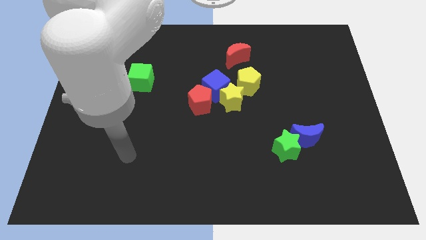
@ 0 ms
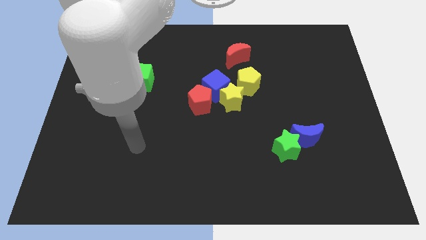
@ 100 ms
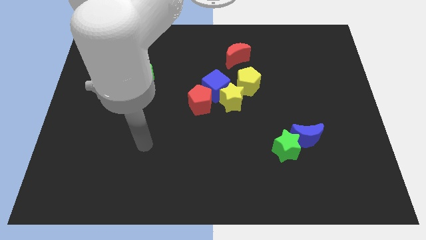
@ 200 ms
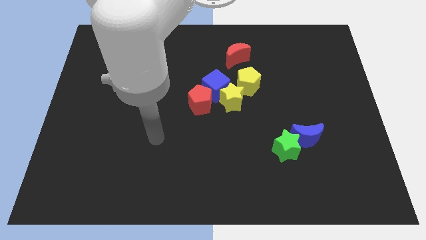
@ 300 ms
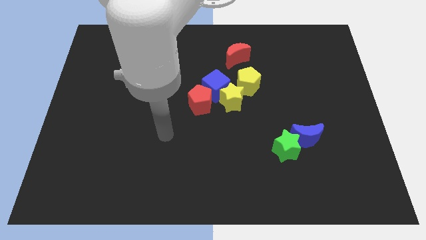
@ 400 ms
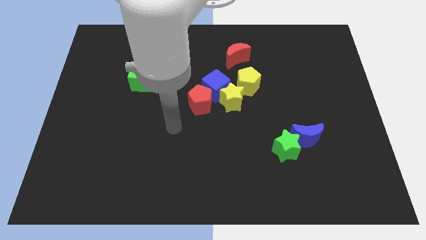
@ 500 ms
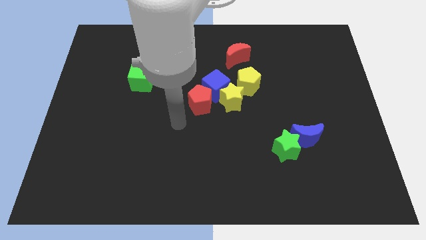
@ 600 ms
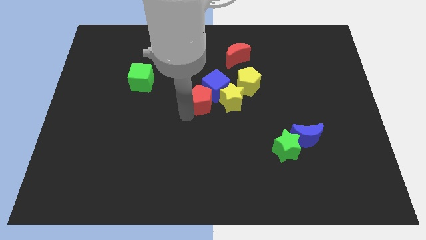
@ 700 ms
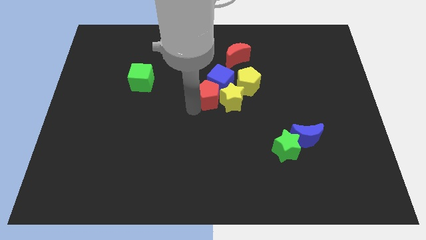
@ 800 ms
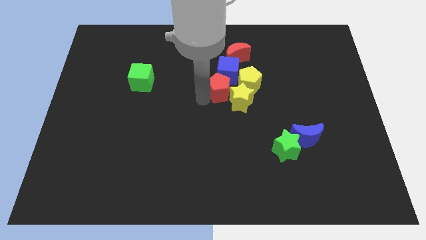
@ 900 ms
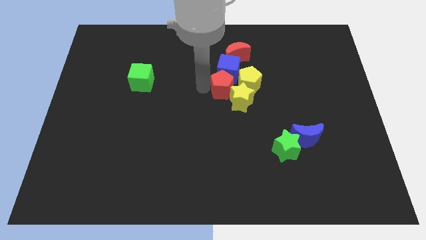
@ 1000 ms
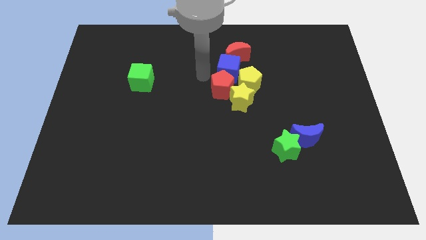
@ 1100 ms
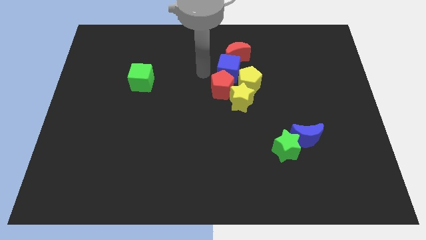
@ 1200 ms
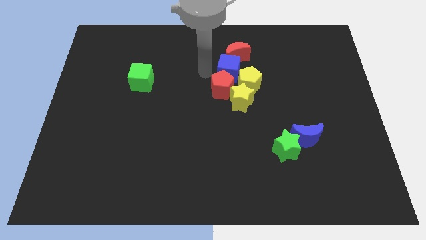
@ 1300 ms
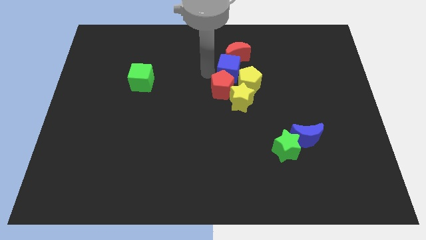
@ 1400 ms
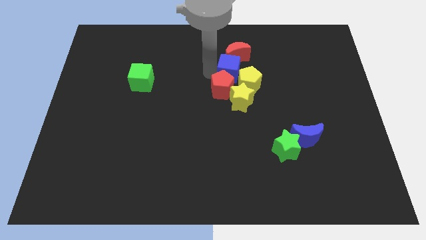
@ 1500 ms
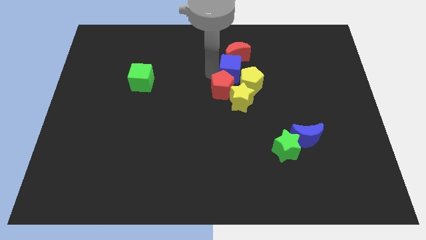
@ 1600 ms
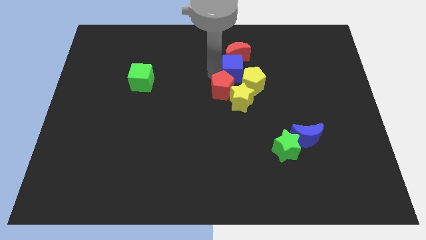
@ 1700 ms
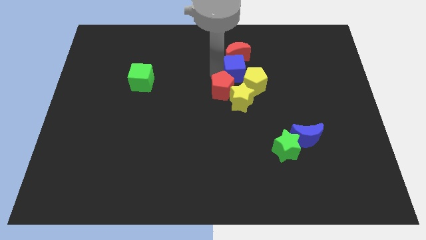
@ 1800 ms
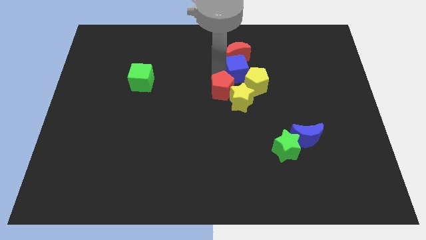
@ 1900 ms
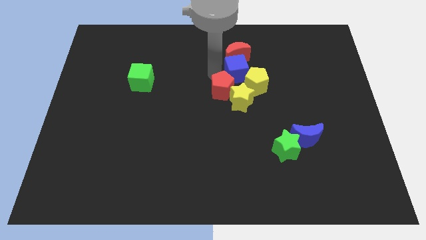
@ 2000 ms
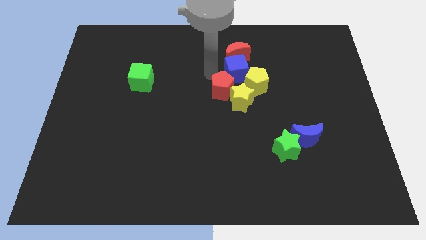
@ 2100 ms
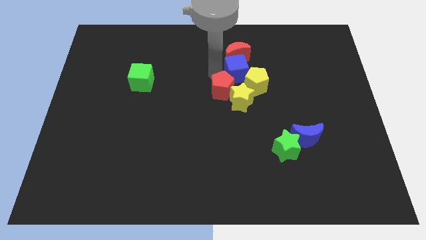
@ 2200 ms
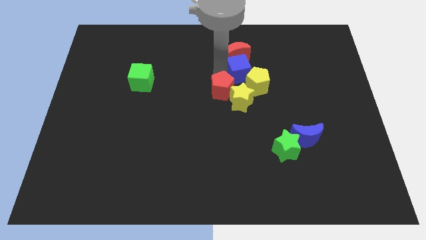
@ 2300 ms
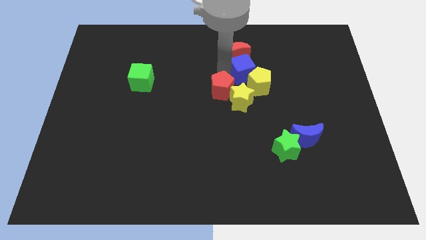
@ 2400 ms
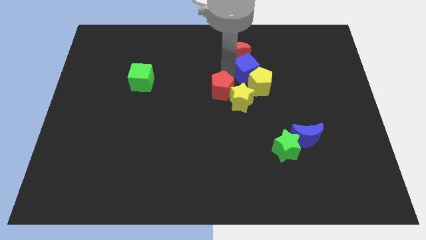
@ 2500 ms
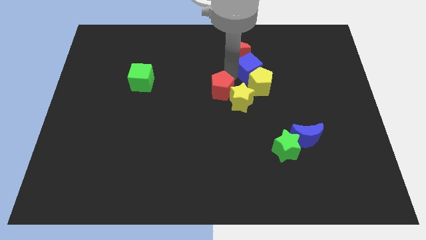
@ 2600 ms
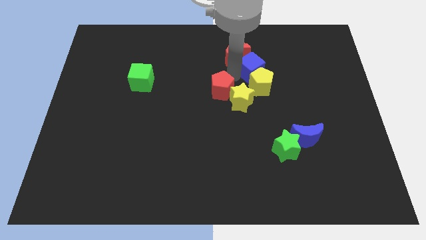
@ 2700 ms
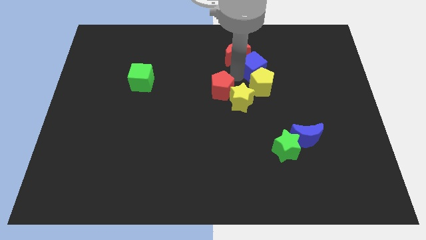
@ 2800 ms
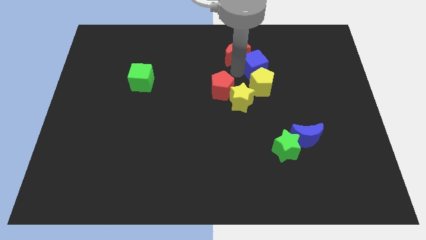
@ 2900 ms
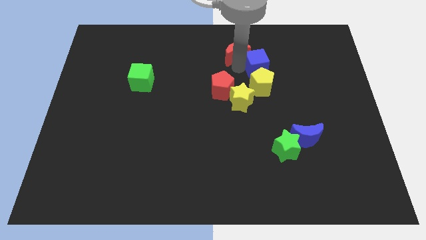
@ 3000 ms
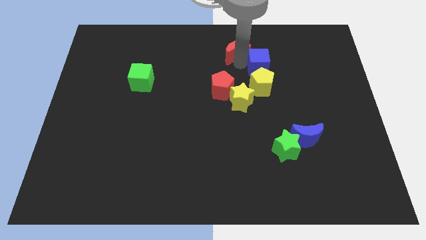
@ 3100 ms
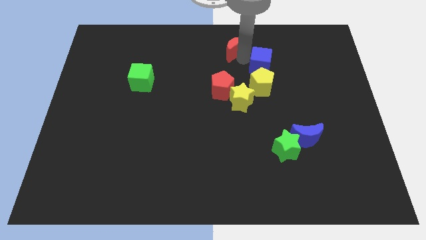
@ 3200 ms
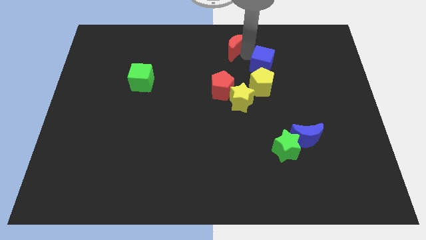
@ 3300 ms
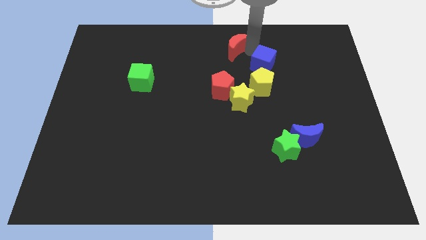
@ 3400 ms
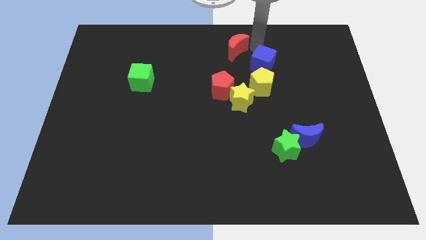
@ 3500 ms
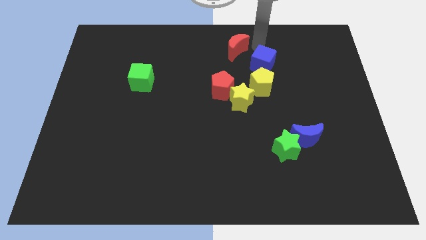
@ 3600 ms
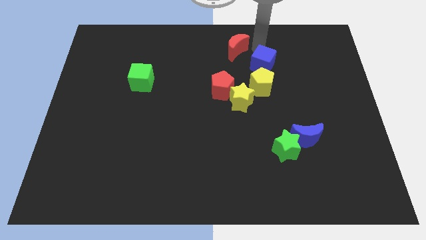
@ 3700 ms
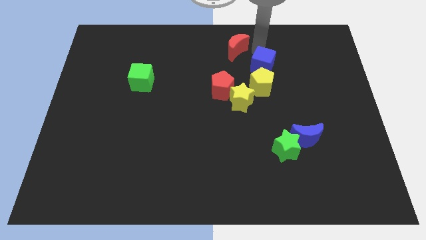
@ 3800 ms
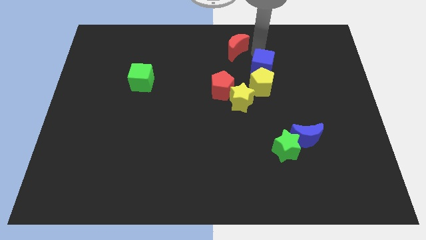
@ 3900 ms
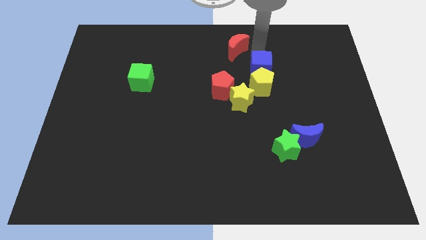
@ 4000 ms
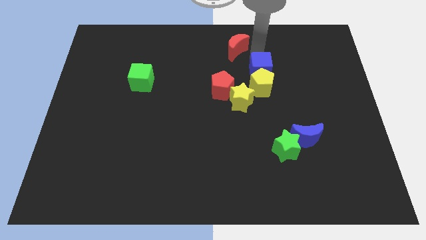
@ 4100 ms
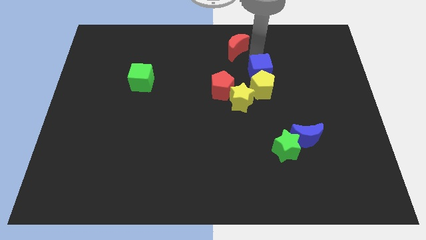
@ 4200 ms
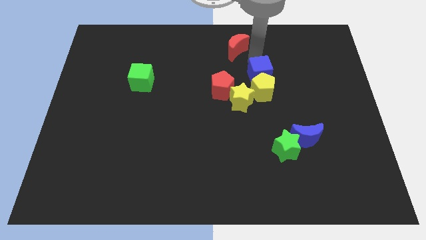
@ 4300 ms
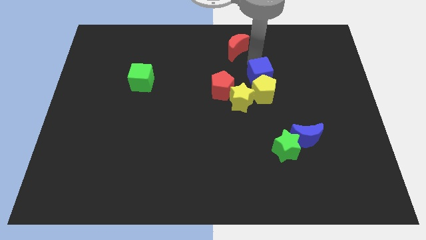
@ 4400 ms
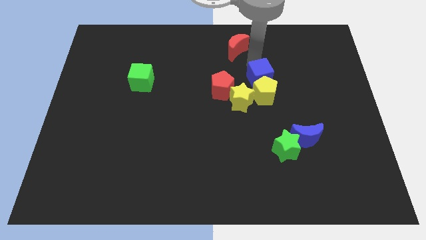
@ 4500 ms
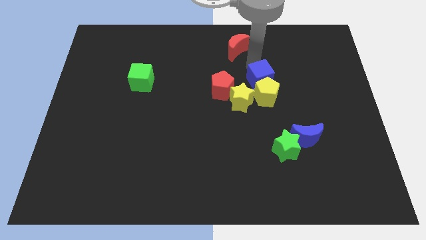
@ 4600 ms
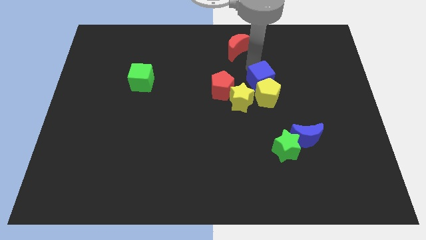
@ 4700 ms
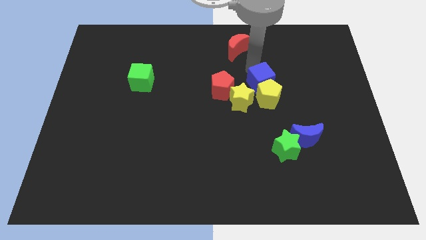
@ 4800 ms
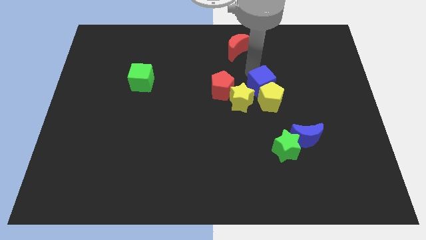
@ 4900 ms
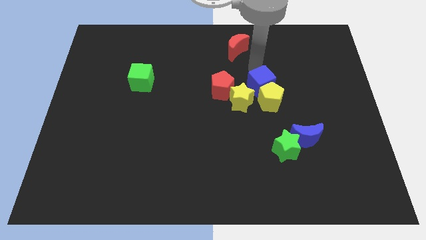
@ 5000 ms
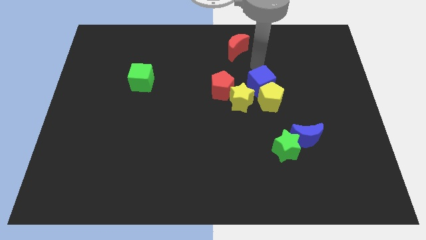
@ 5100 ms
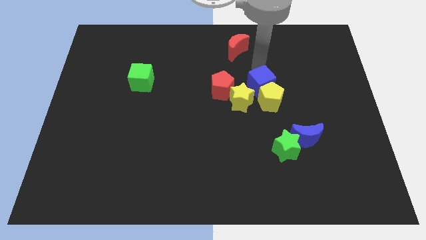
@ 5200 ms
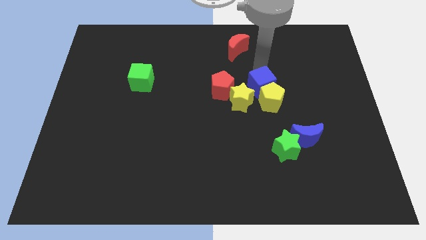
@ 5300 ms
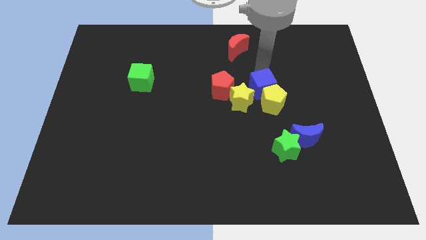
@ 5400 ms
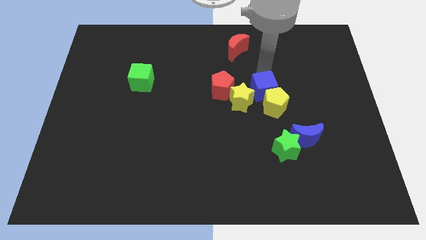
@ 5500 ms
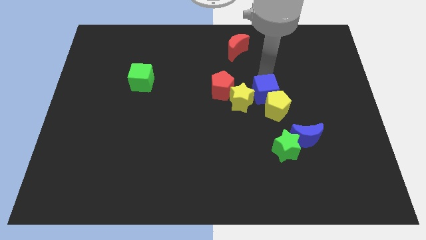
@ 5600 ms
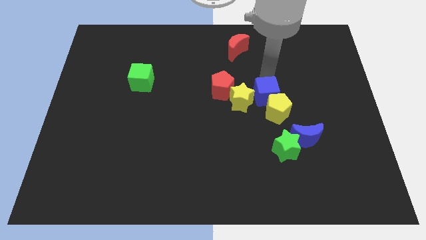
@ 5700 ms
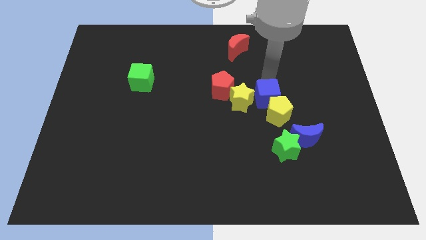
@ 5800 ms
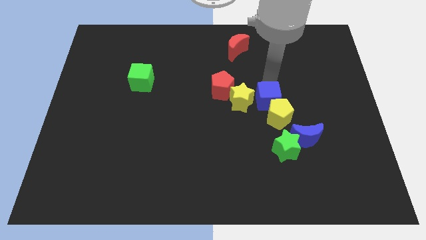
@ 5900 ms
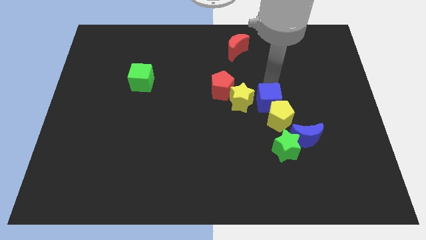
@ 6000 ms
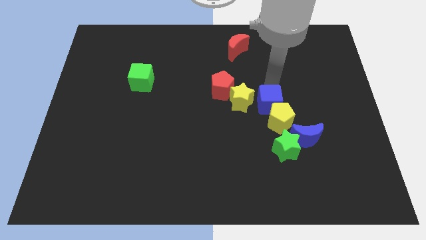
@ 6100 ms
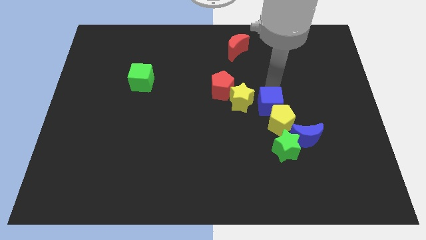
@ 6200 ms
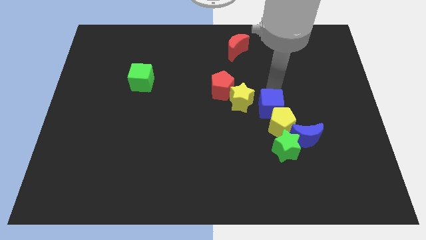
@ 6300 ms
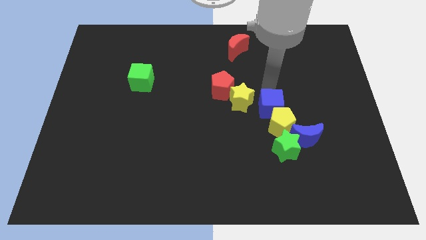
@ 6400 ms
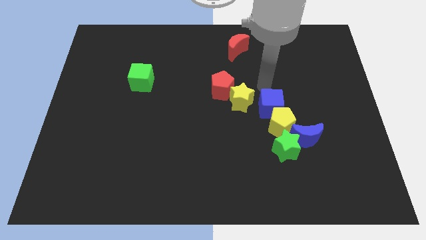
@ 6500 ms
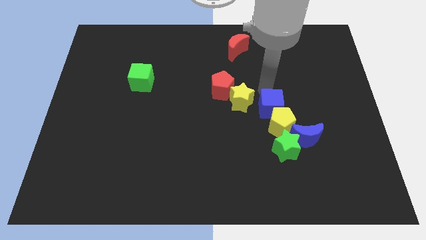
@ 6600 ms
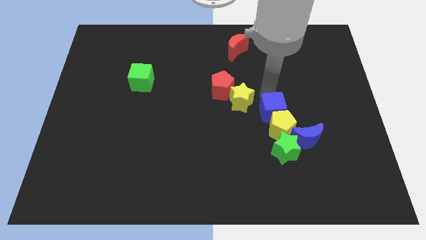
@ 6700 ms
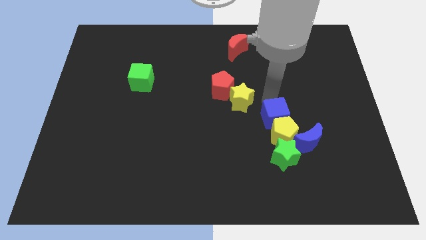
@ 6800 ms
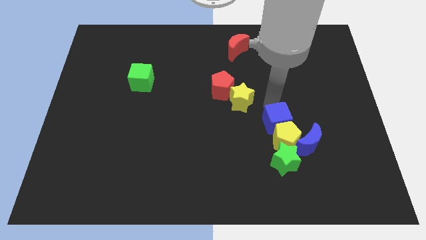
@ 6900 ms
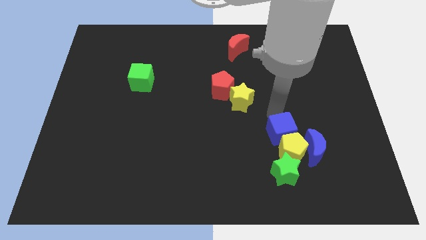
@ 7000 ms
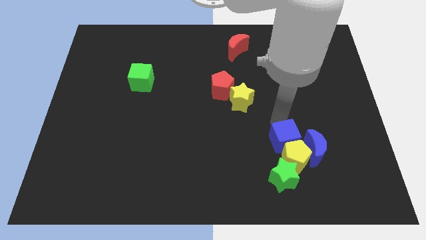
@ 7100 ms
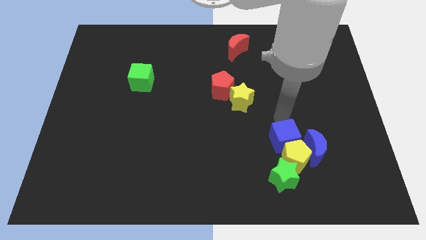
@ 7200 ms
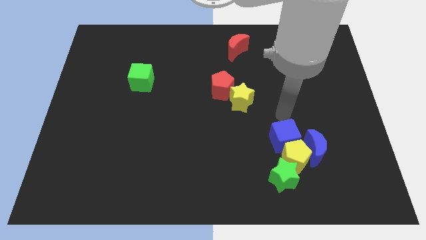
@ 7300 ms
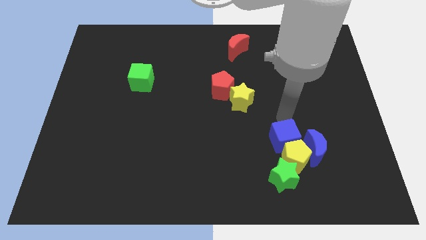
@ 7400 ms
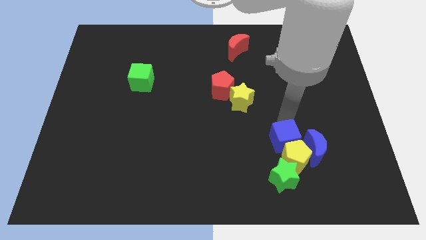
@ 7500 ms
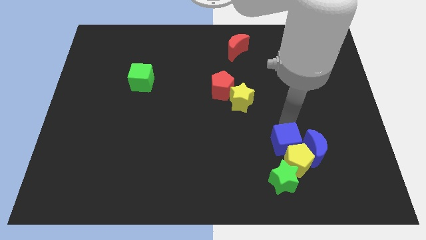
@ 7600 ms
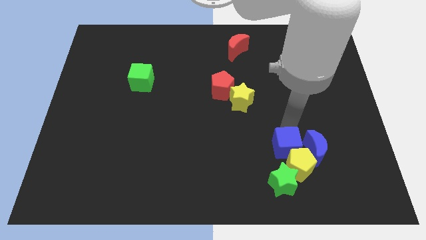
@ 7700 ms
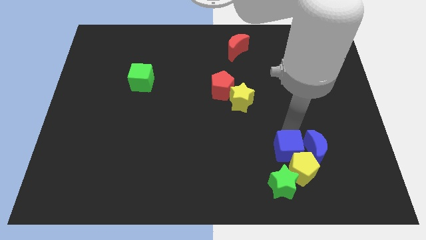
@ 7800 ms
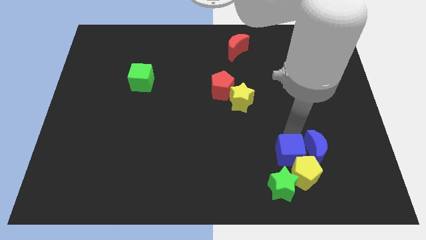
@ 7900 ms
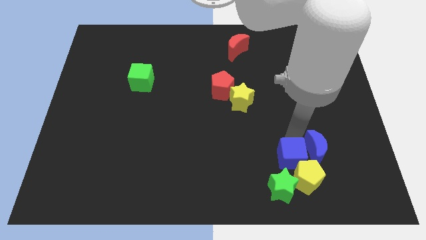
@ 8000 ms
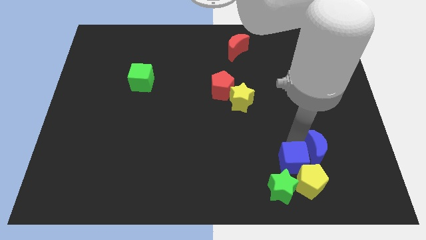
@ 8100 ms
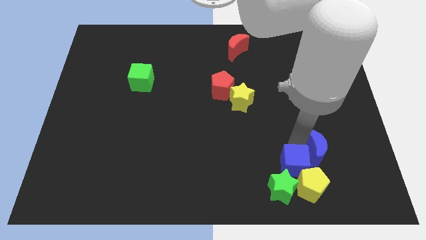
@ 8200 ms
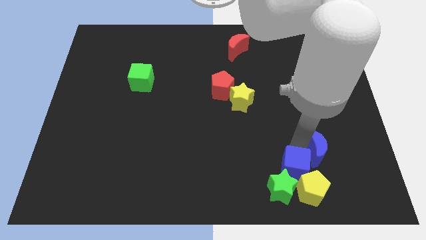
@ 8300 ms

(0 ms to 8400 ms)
push the blue cube towards the green star
